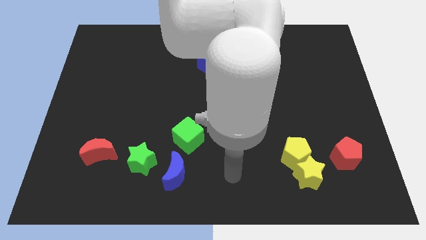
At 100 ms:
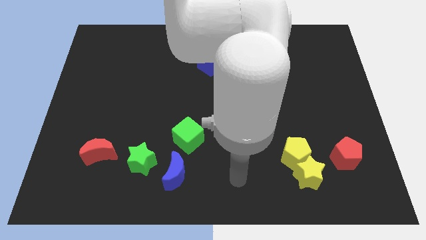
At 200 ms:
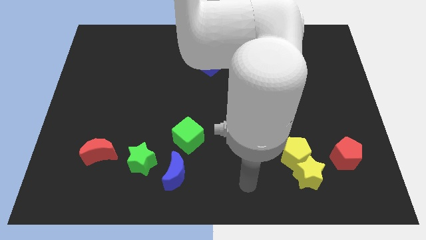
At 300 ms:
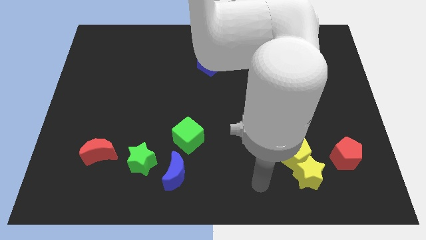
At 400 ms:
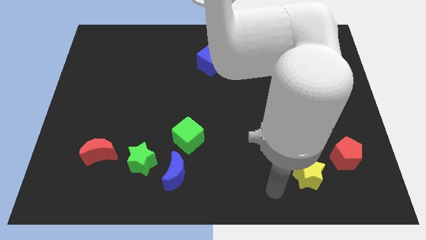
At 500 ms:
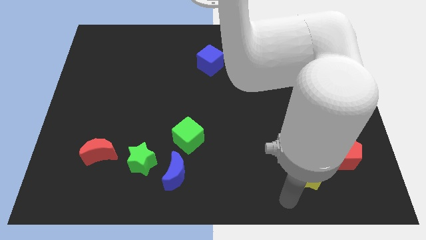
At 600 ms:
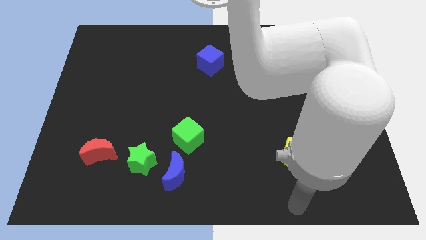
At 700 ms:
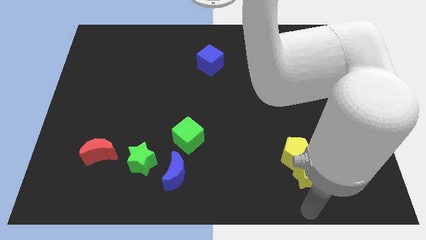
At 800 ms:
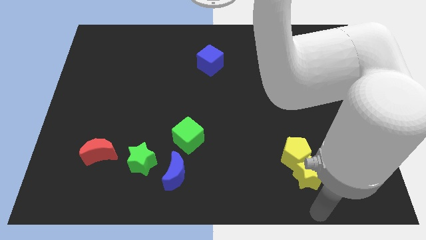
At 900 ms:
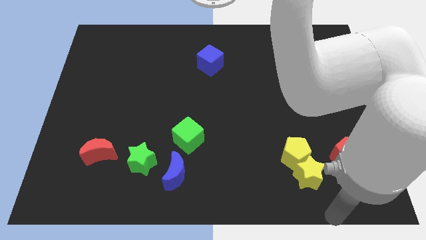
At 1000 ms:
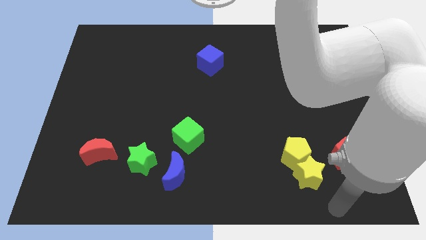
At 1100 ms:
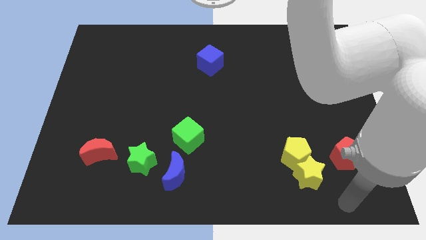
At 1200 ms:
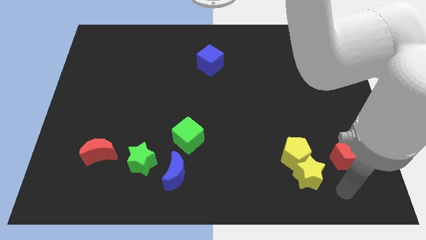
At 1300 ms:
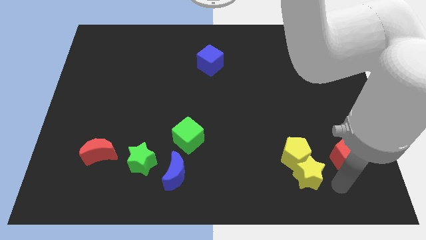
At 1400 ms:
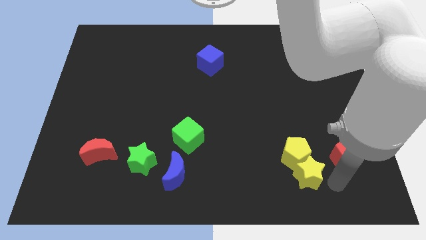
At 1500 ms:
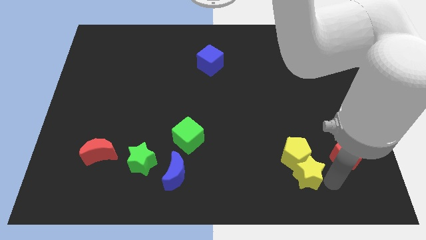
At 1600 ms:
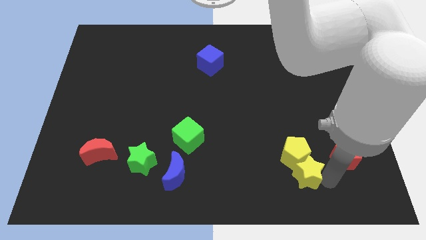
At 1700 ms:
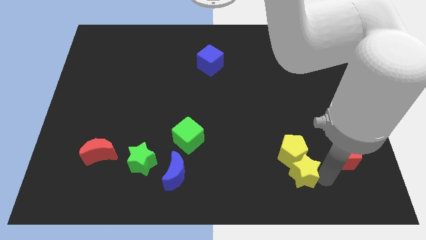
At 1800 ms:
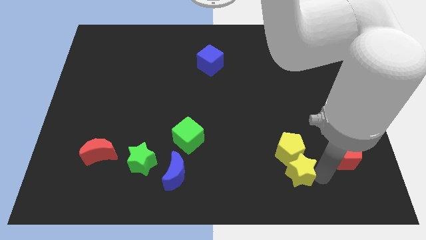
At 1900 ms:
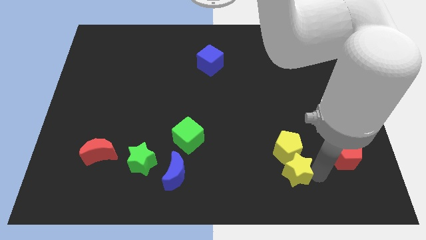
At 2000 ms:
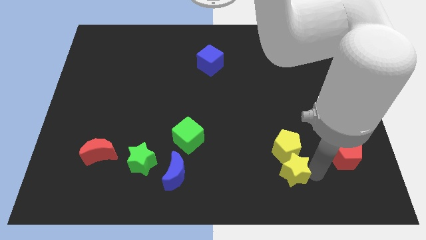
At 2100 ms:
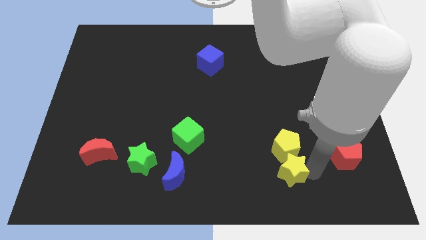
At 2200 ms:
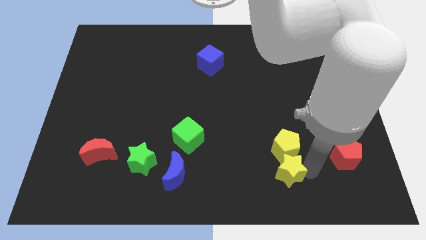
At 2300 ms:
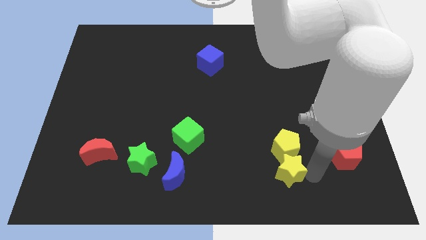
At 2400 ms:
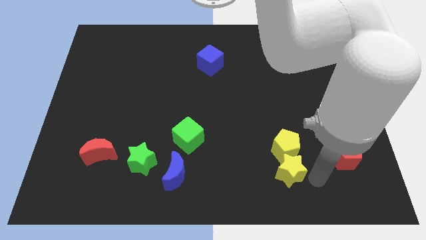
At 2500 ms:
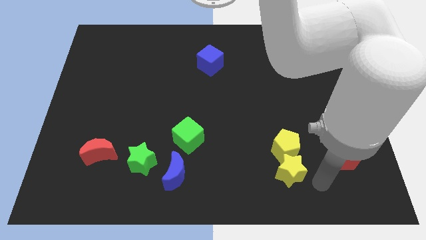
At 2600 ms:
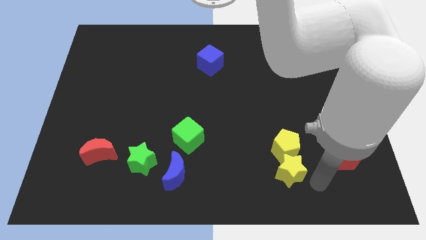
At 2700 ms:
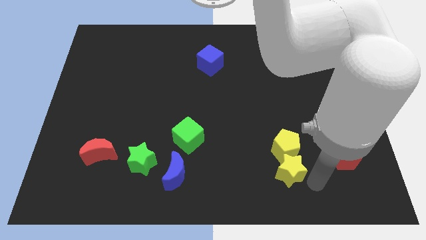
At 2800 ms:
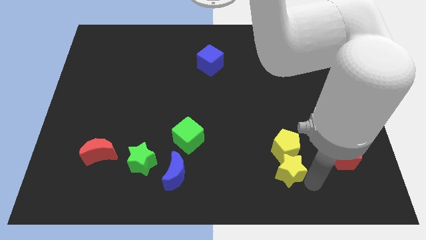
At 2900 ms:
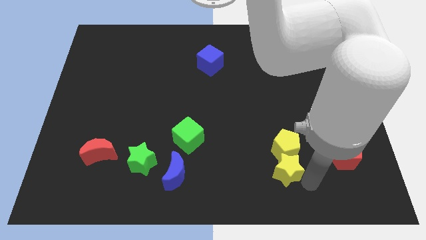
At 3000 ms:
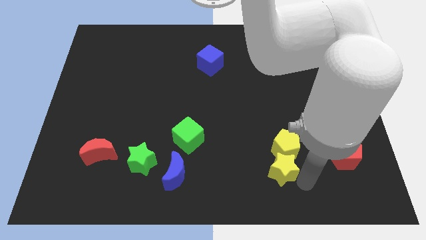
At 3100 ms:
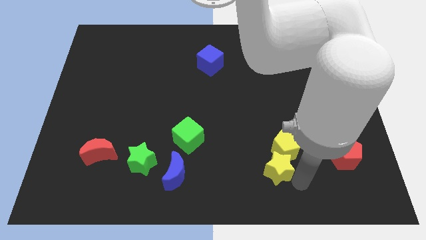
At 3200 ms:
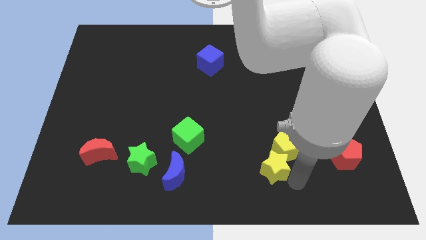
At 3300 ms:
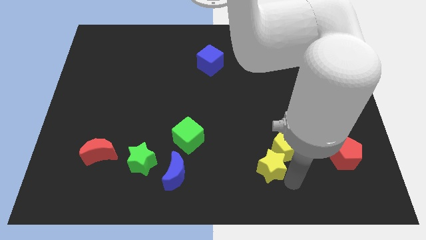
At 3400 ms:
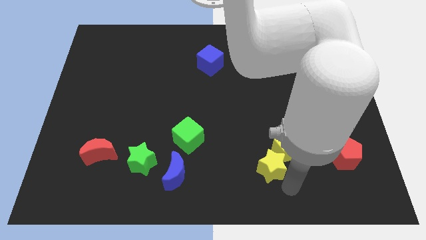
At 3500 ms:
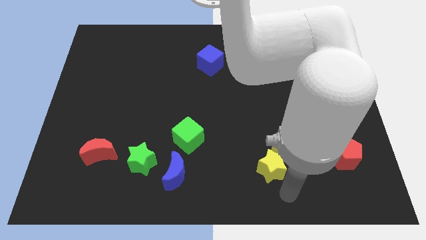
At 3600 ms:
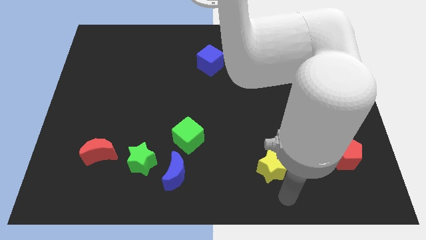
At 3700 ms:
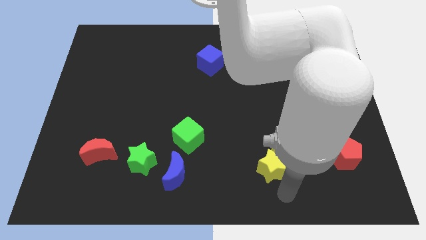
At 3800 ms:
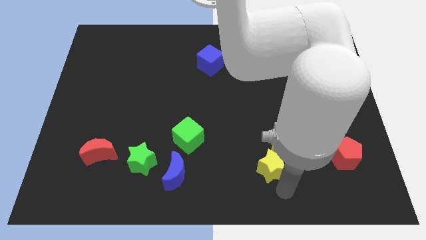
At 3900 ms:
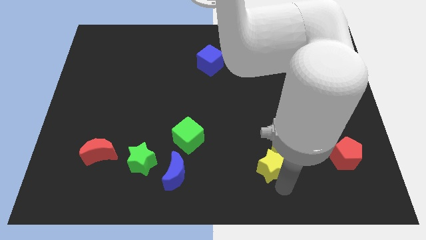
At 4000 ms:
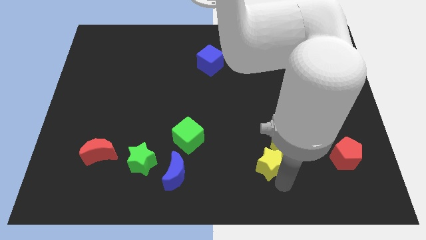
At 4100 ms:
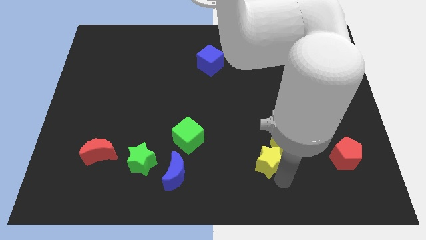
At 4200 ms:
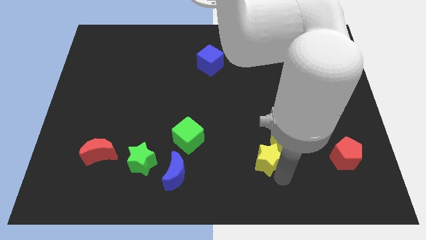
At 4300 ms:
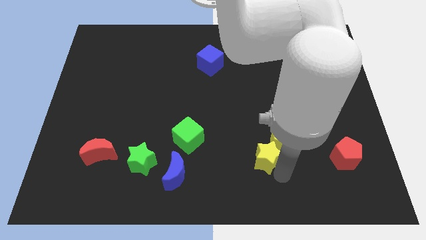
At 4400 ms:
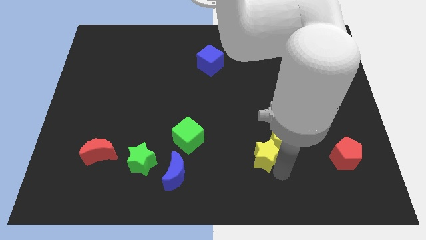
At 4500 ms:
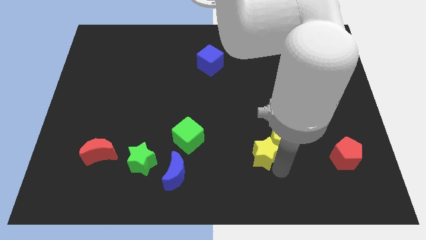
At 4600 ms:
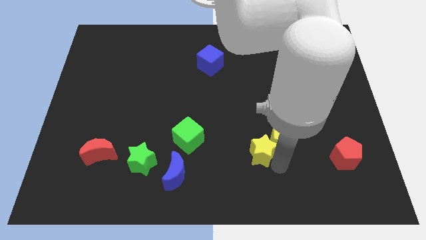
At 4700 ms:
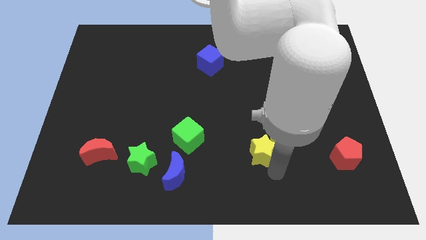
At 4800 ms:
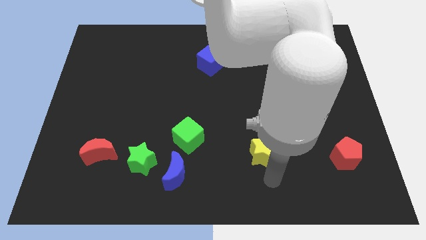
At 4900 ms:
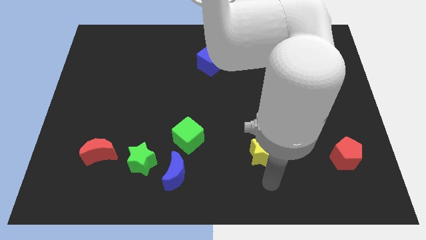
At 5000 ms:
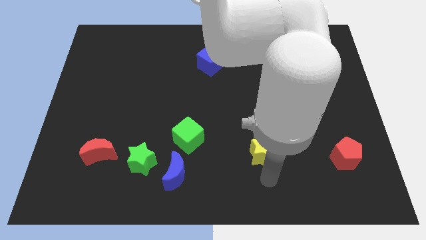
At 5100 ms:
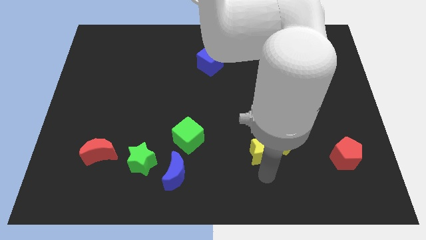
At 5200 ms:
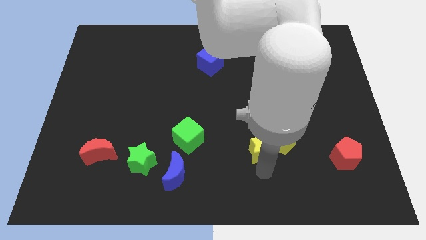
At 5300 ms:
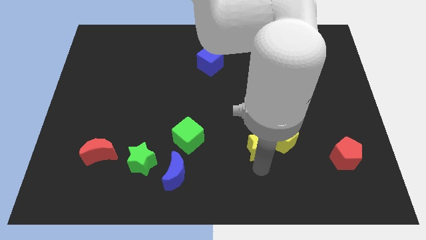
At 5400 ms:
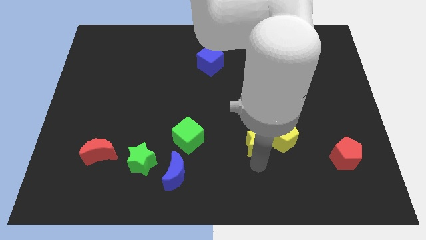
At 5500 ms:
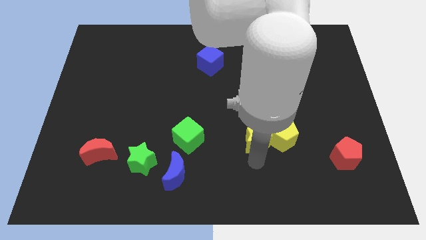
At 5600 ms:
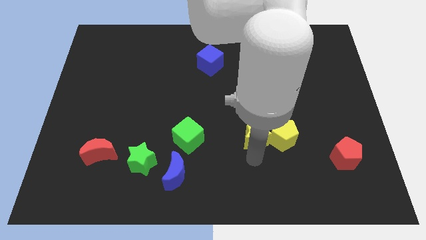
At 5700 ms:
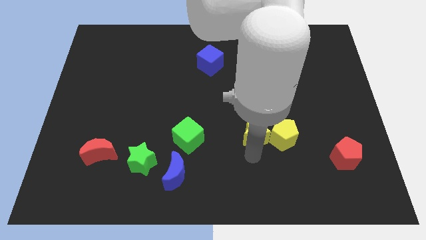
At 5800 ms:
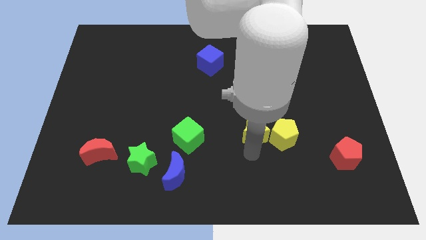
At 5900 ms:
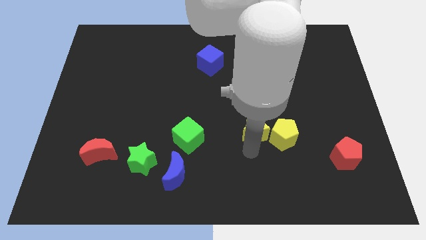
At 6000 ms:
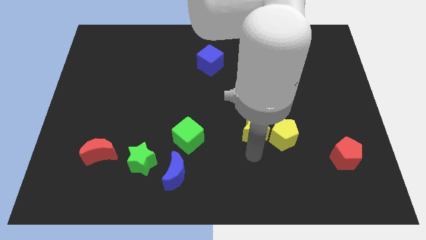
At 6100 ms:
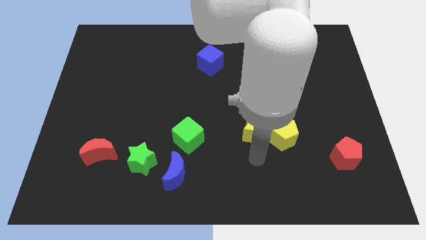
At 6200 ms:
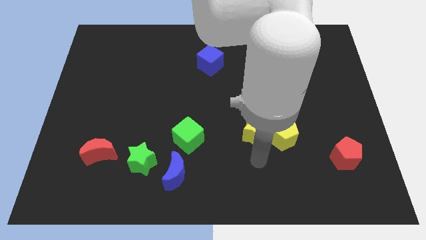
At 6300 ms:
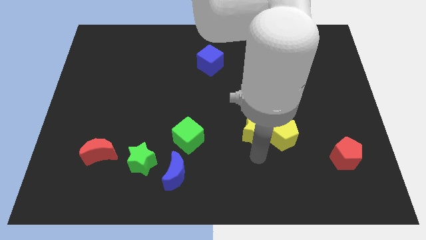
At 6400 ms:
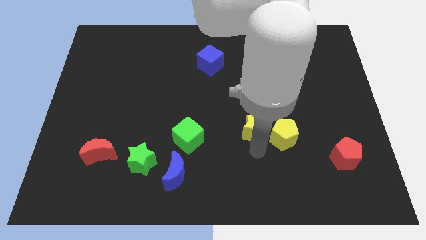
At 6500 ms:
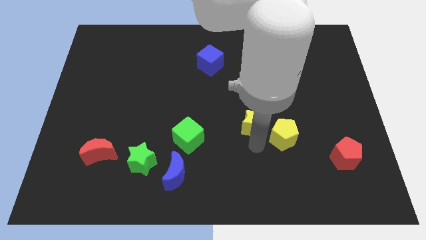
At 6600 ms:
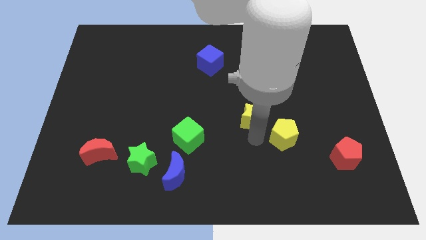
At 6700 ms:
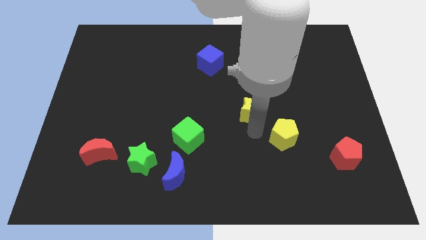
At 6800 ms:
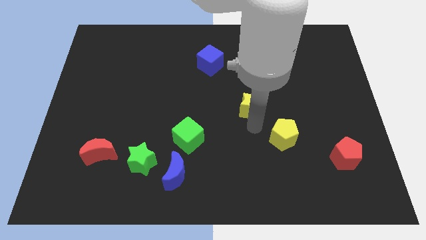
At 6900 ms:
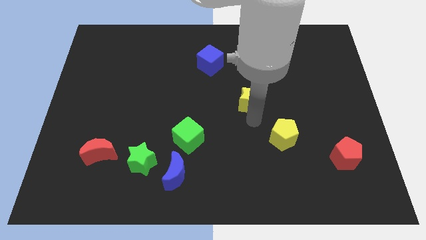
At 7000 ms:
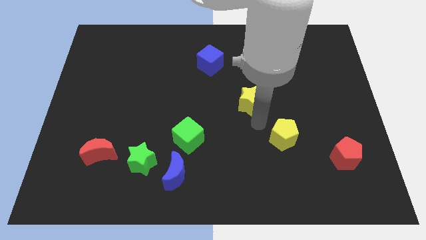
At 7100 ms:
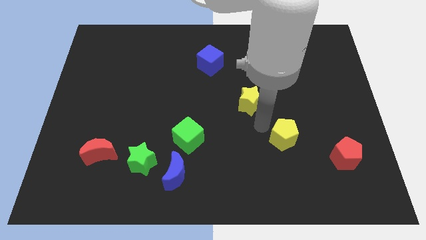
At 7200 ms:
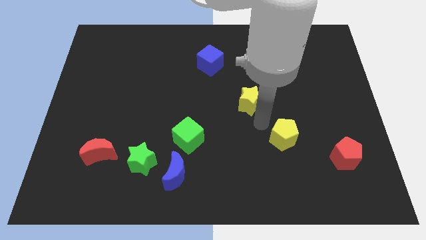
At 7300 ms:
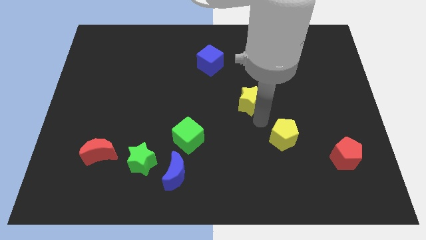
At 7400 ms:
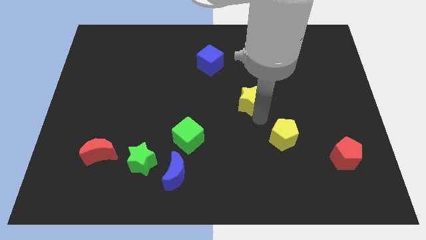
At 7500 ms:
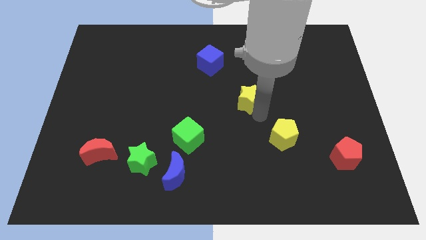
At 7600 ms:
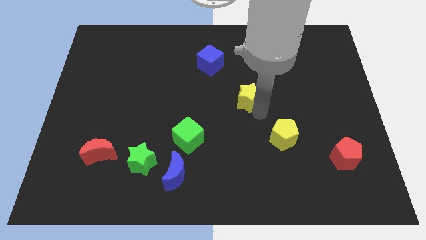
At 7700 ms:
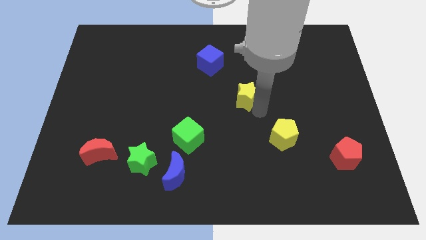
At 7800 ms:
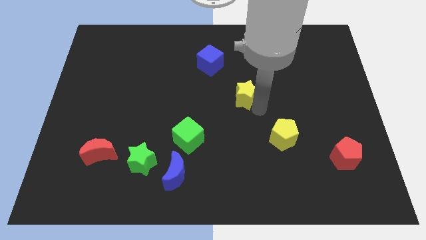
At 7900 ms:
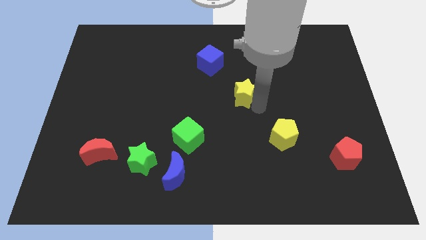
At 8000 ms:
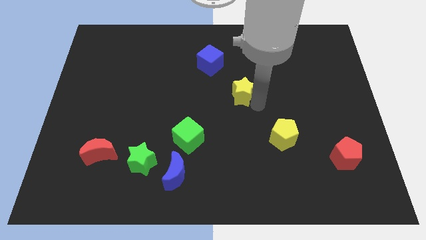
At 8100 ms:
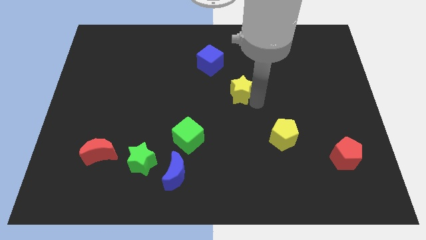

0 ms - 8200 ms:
put the yellow star to the bottom right side of the blue cube
